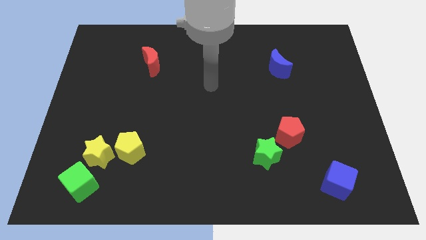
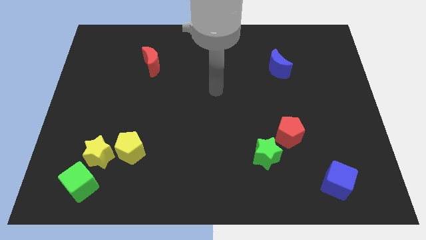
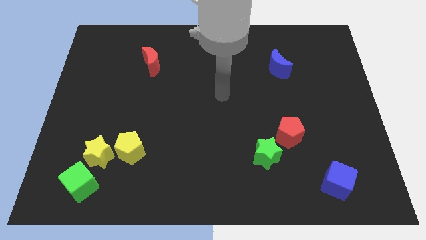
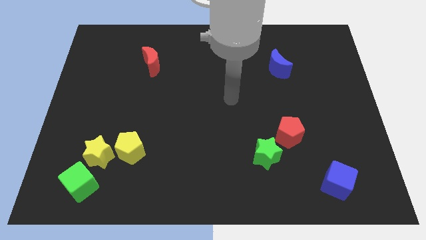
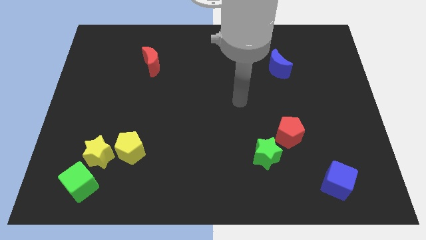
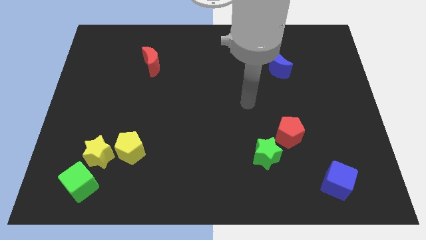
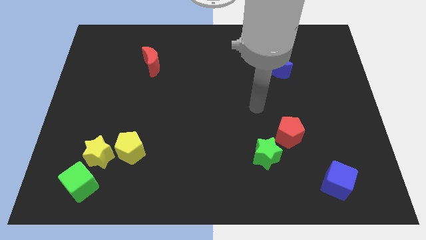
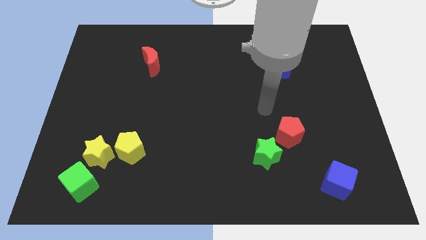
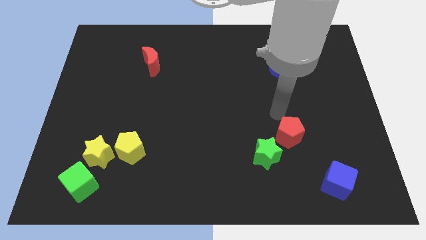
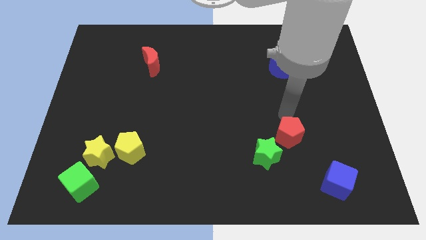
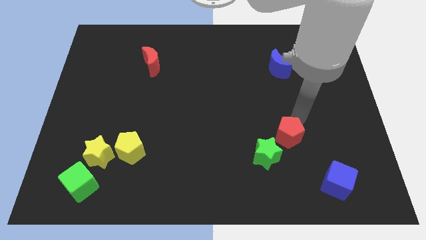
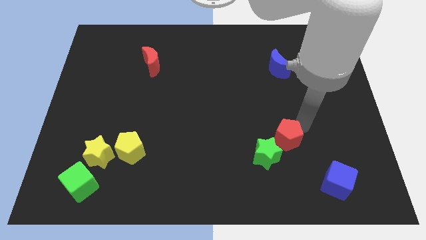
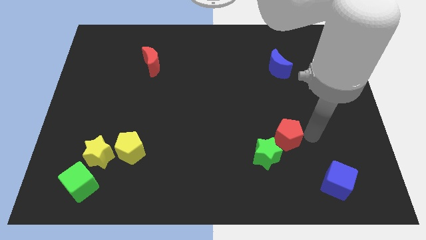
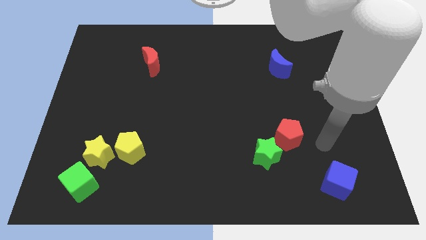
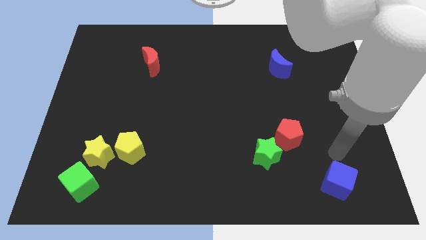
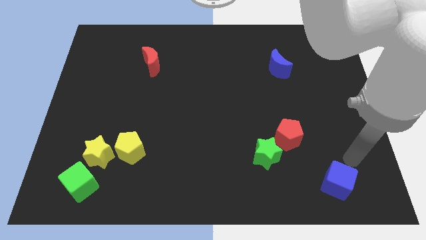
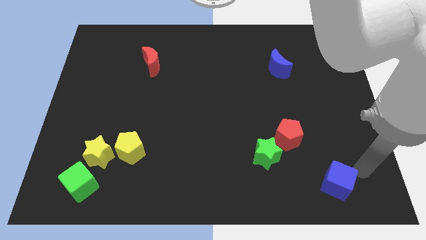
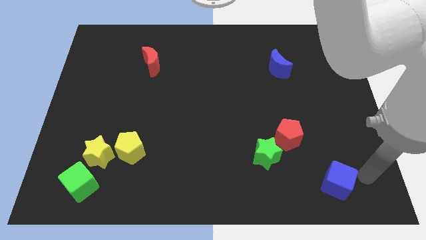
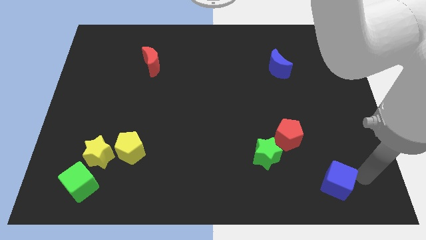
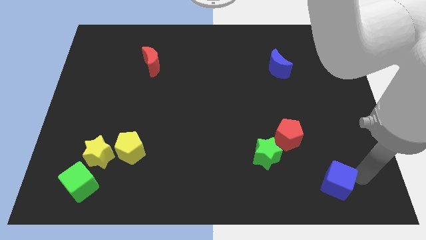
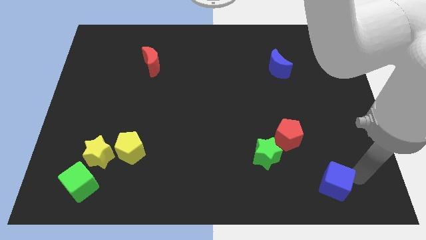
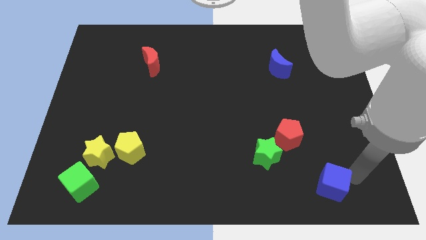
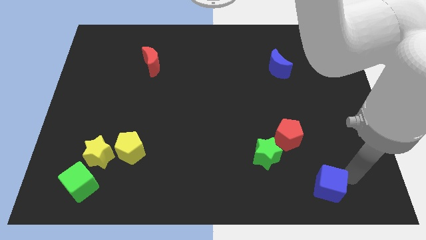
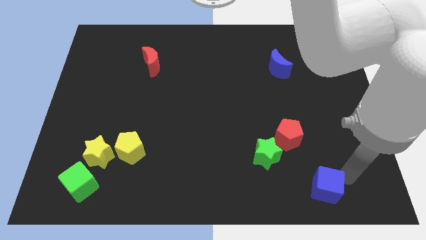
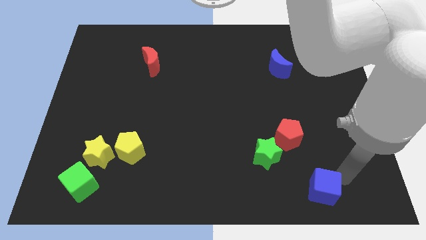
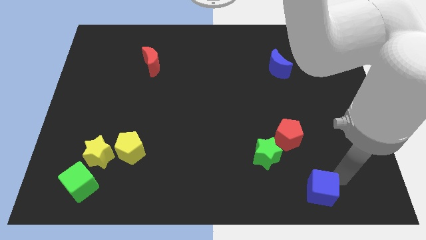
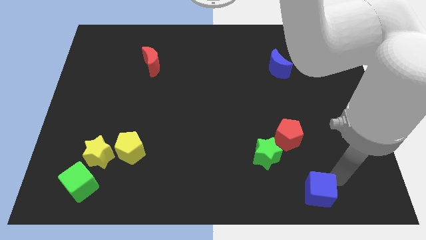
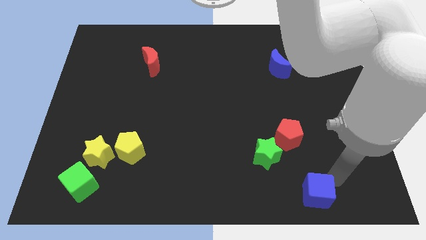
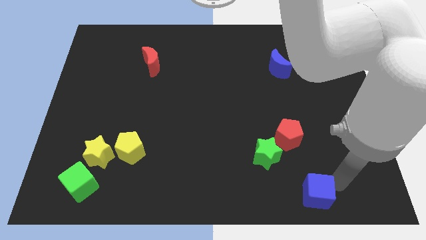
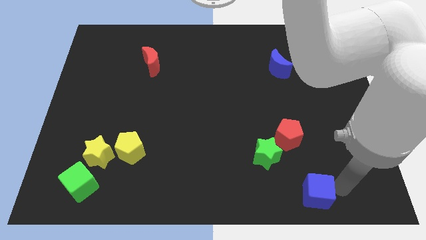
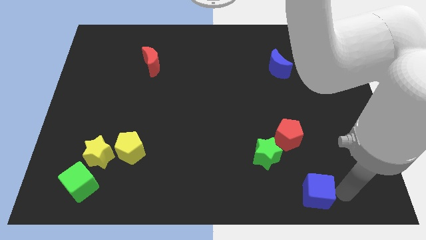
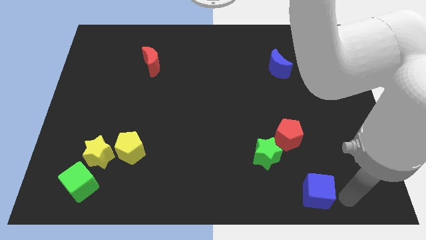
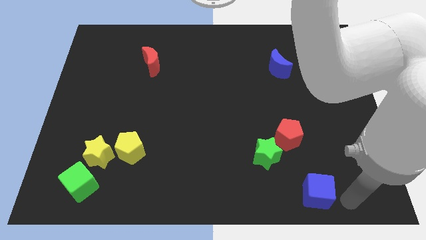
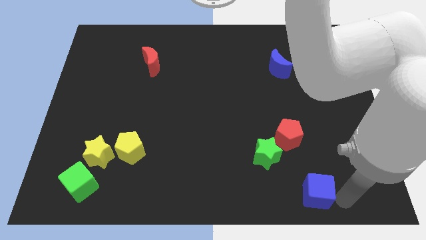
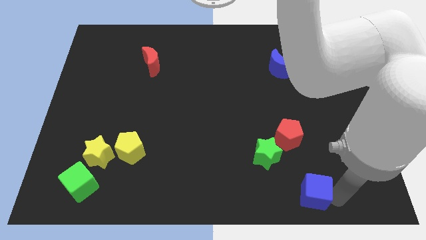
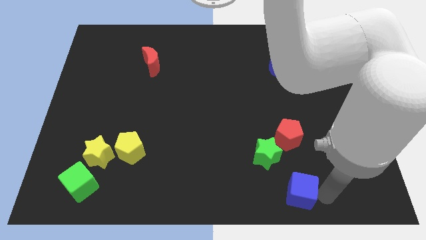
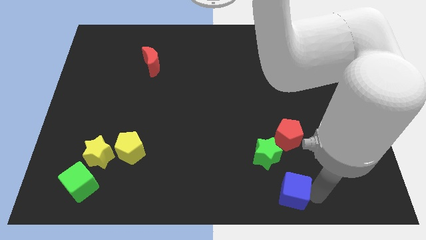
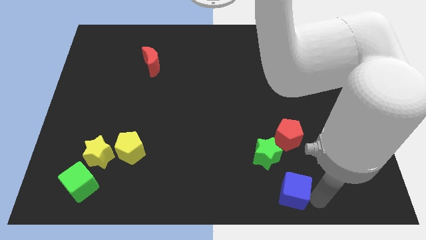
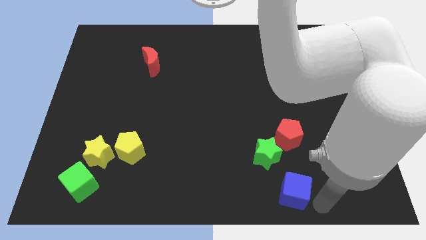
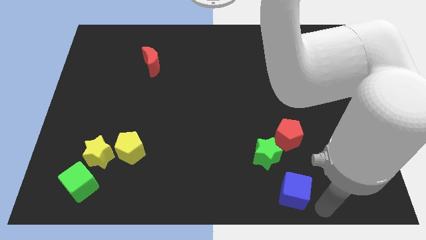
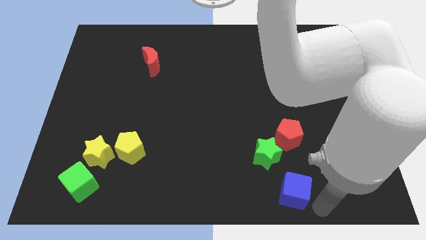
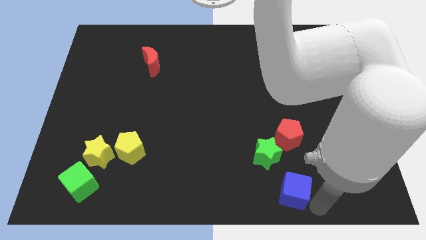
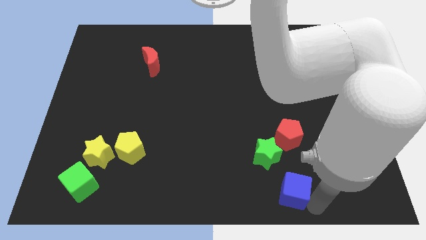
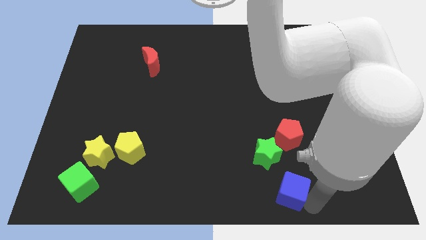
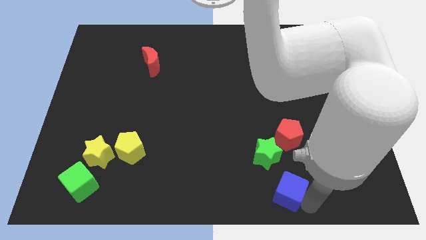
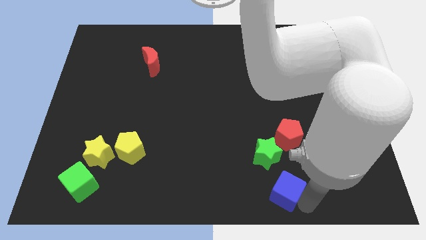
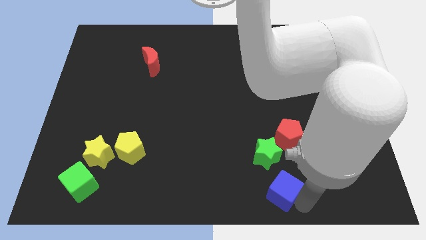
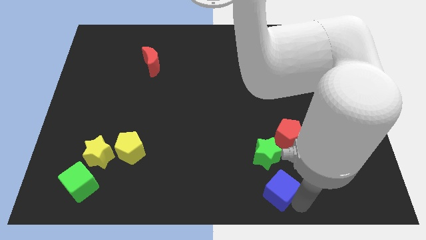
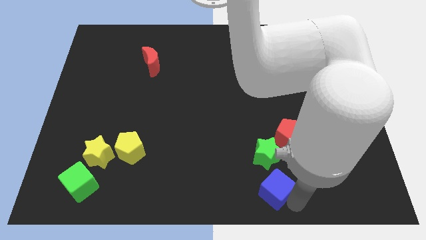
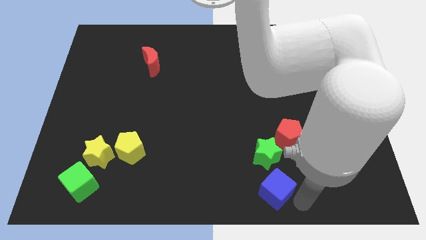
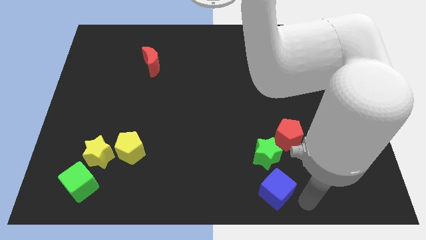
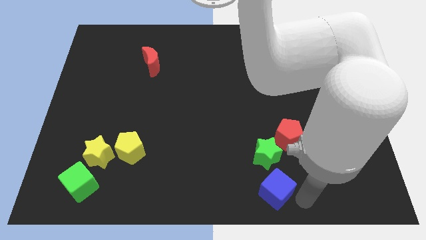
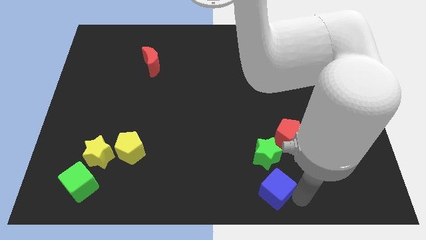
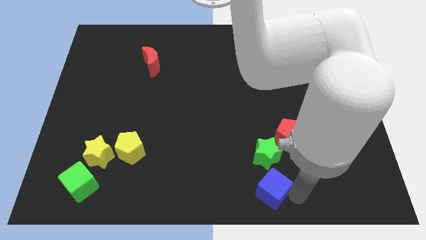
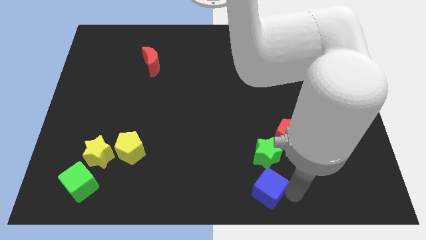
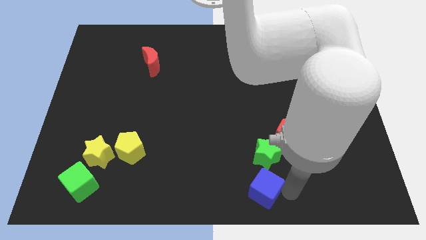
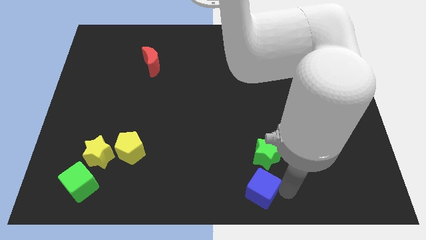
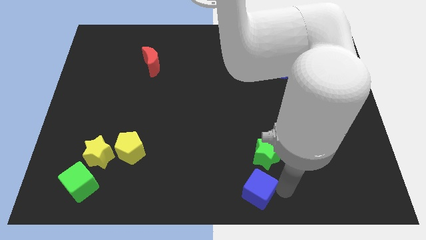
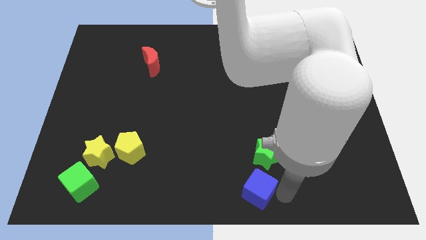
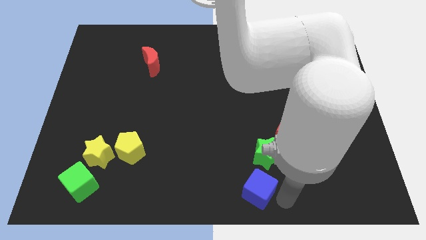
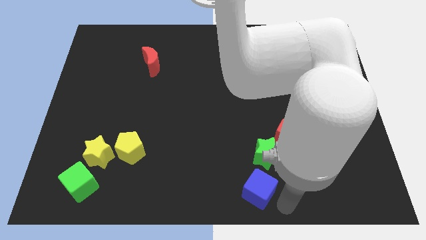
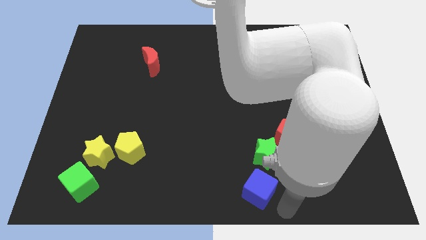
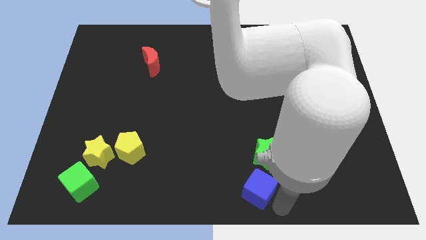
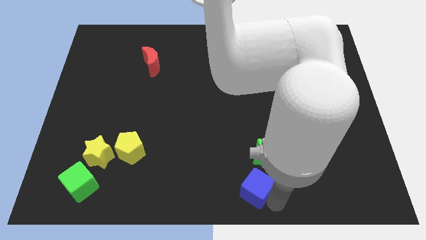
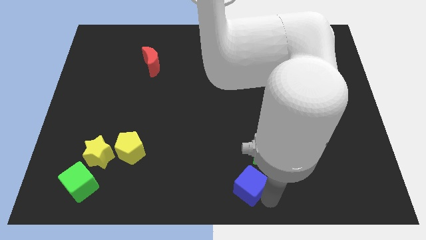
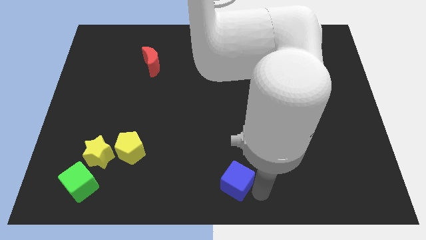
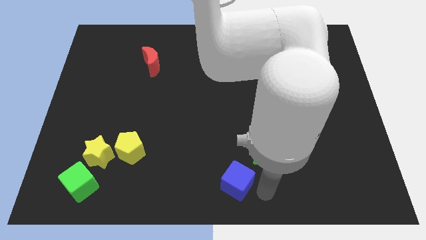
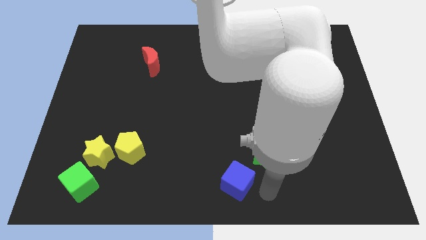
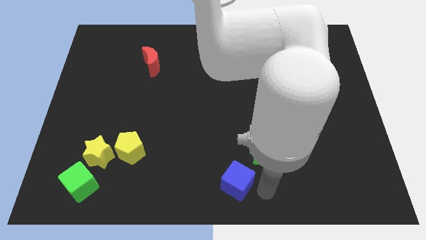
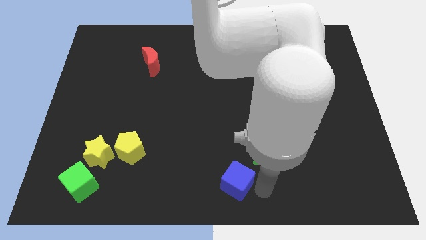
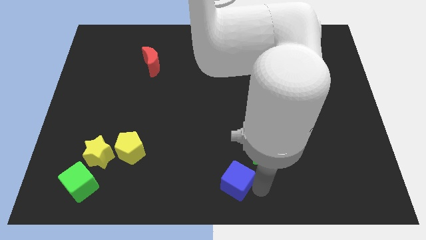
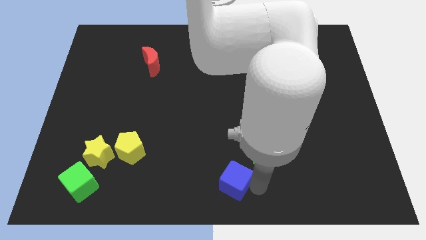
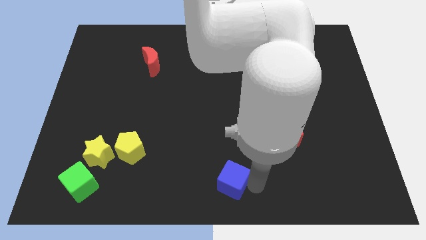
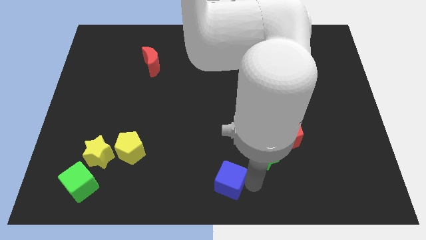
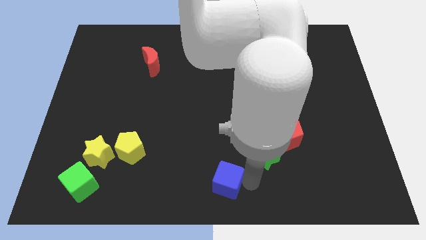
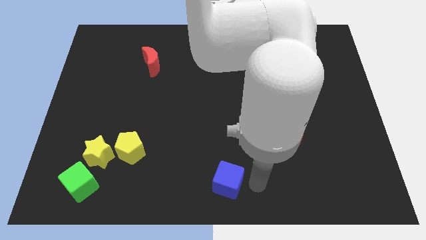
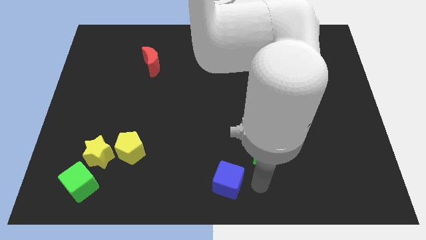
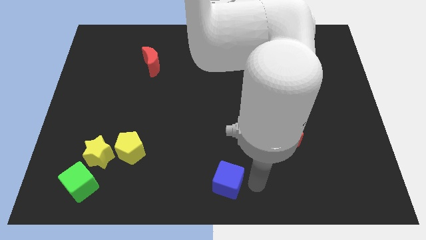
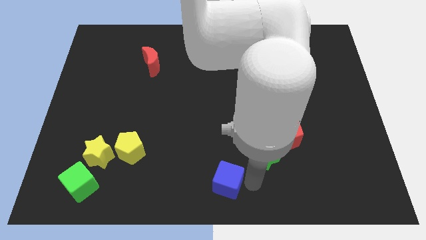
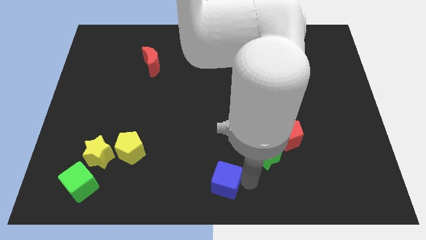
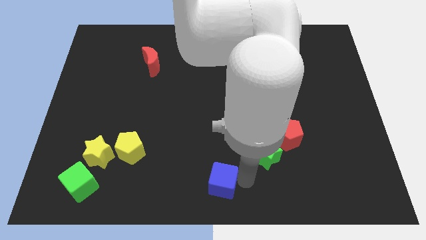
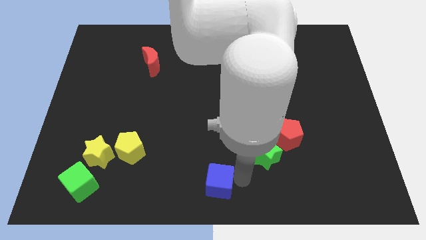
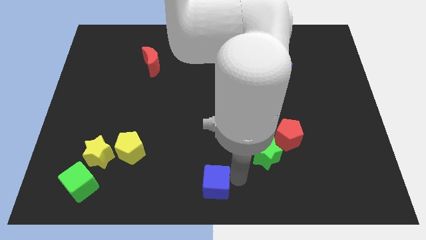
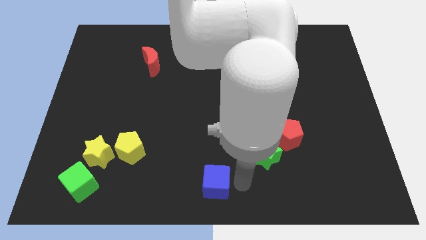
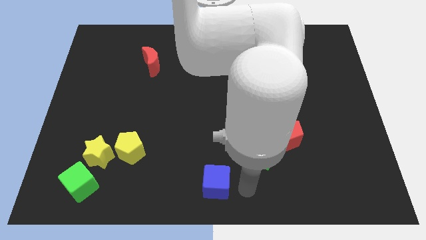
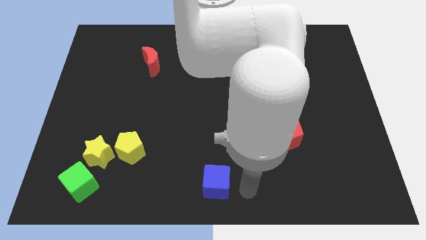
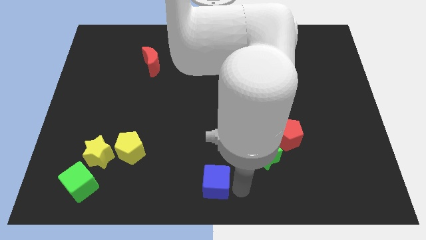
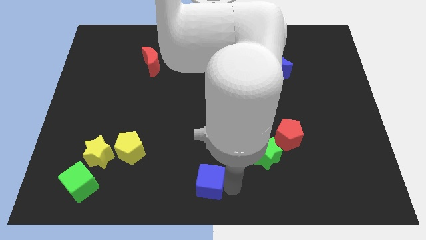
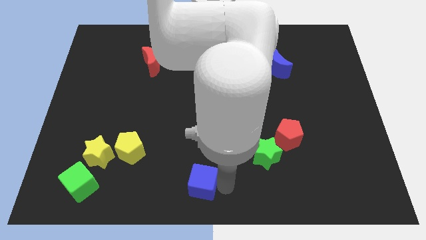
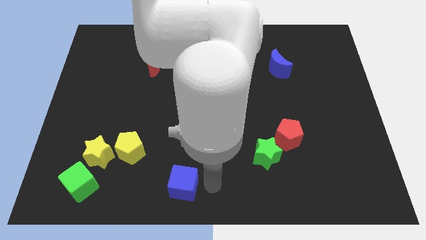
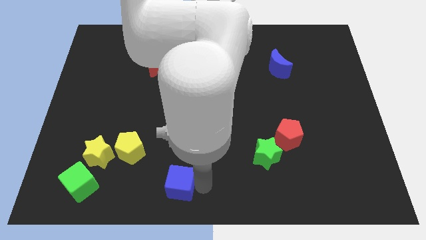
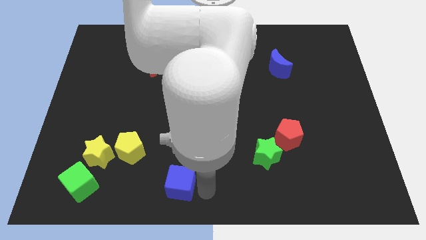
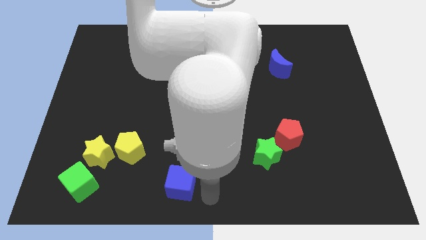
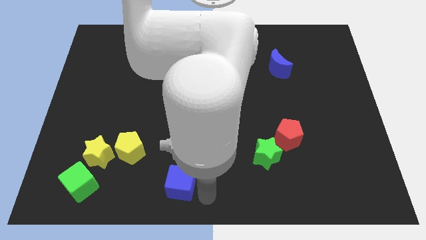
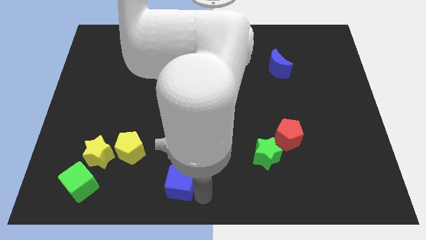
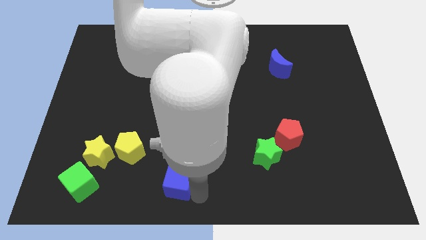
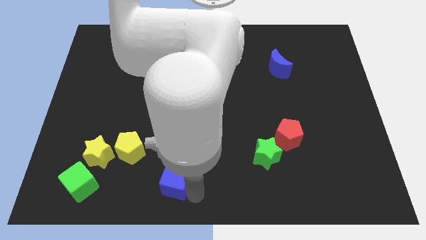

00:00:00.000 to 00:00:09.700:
put the blue cube to the bottom right of the yellow pentagon
